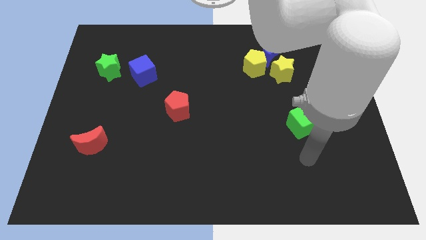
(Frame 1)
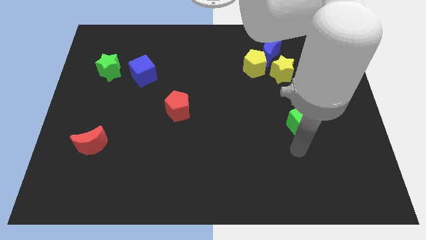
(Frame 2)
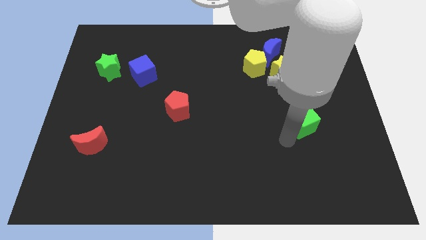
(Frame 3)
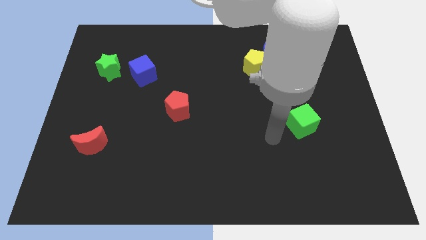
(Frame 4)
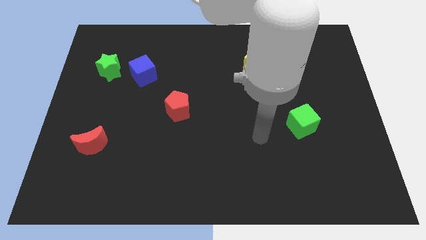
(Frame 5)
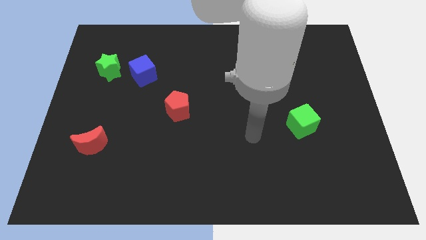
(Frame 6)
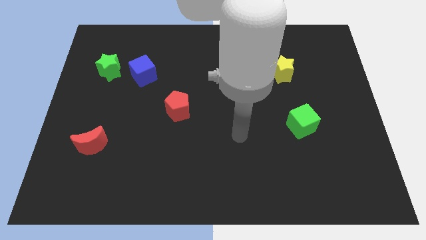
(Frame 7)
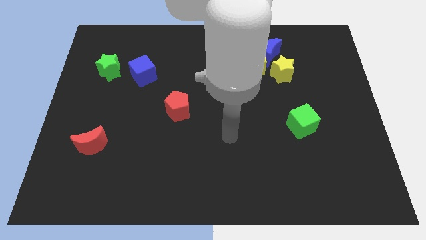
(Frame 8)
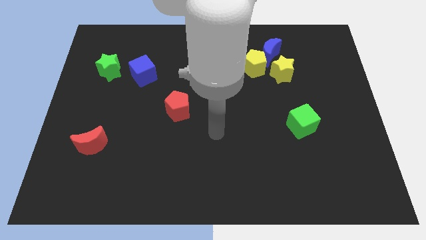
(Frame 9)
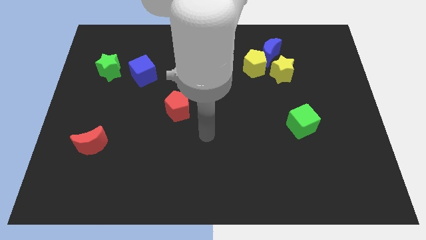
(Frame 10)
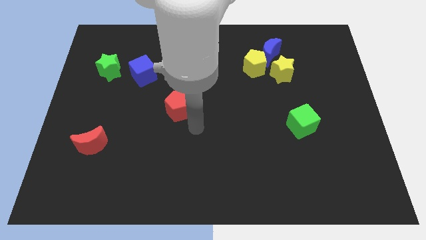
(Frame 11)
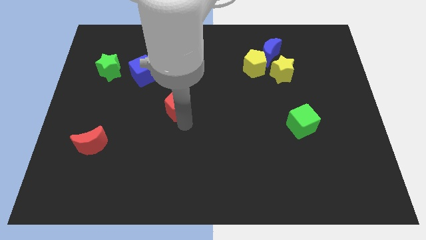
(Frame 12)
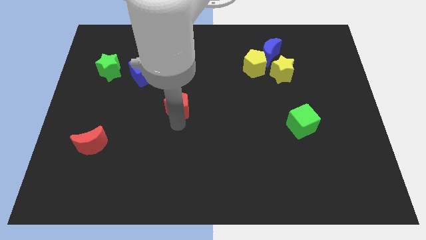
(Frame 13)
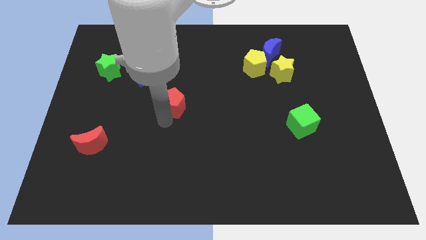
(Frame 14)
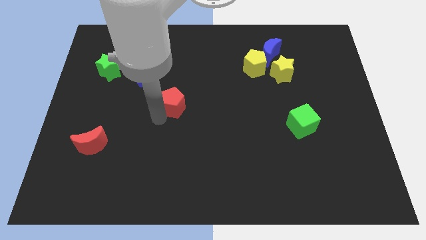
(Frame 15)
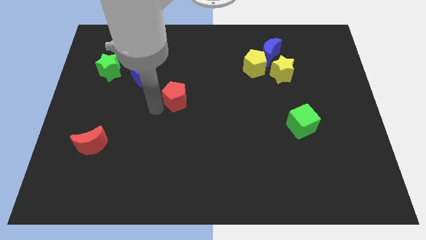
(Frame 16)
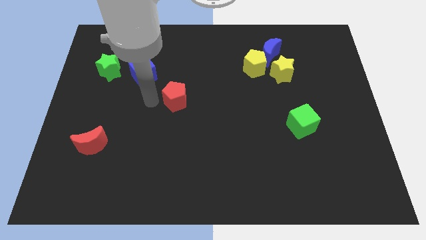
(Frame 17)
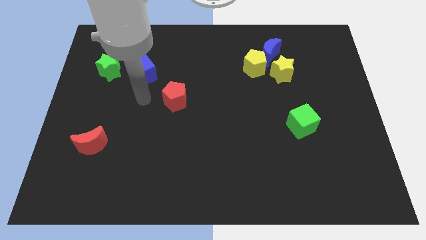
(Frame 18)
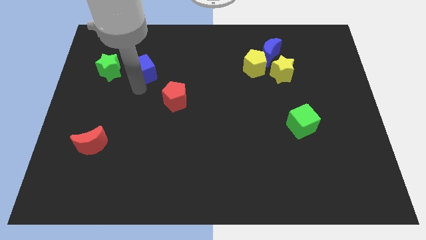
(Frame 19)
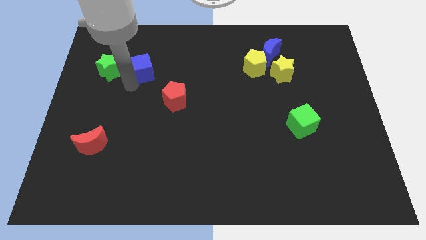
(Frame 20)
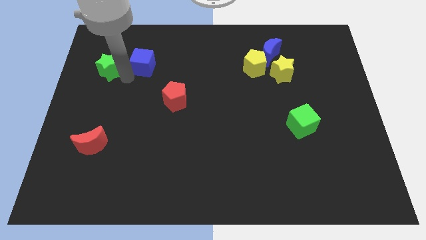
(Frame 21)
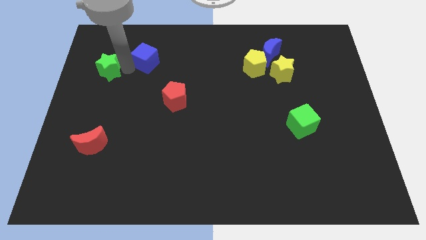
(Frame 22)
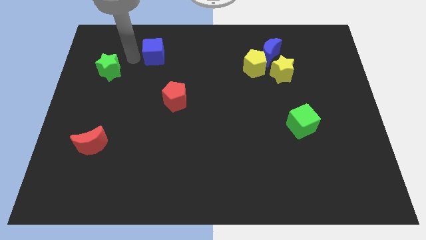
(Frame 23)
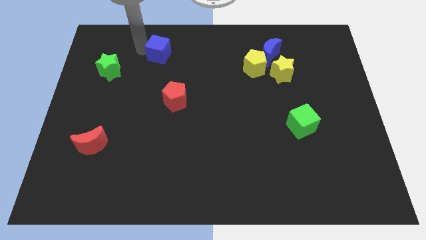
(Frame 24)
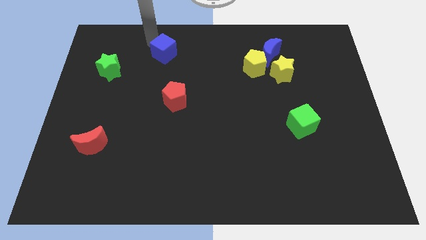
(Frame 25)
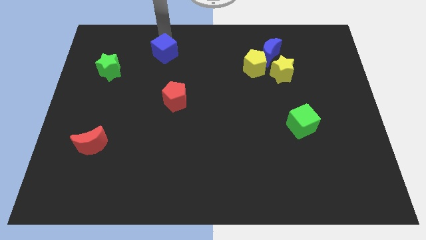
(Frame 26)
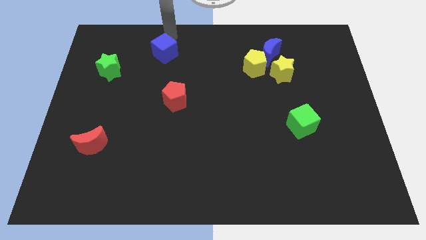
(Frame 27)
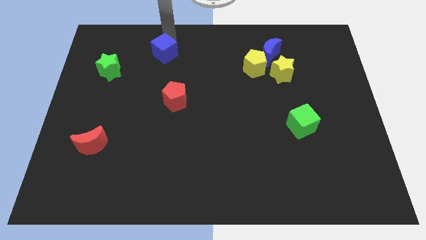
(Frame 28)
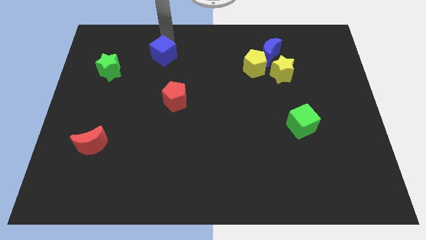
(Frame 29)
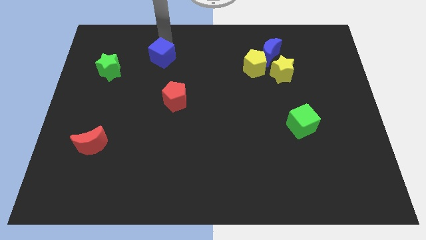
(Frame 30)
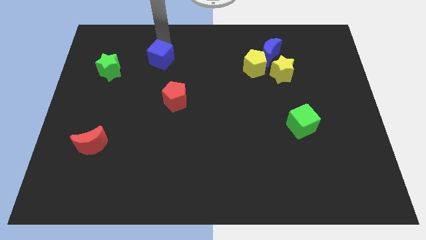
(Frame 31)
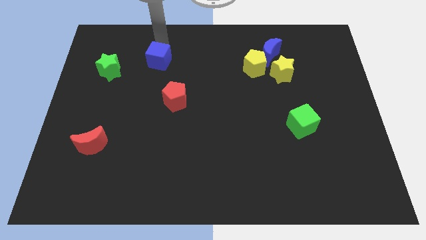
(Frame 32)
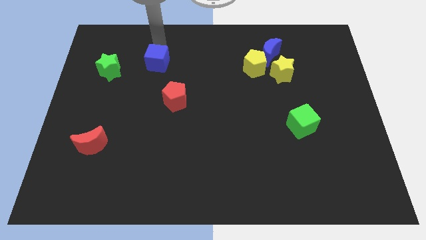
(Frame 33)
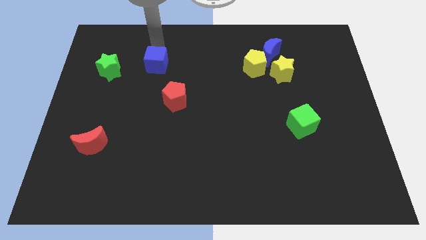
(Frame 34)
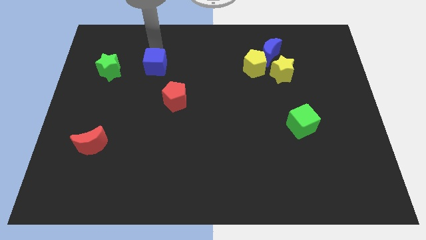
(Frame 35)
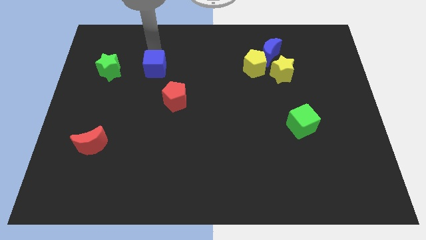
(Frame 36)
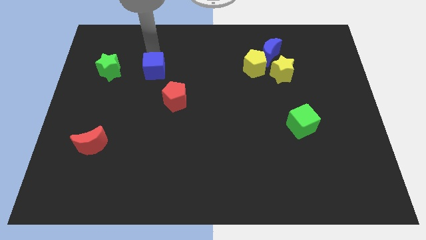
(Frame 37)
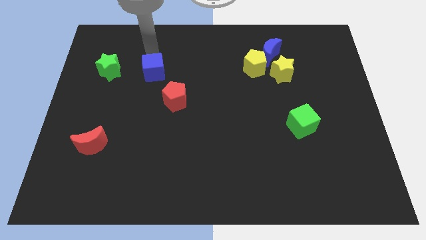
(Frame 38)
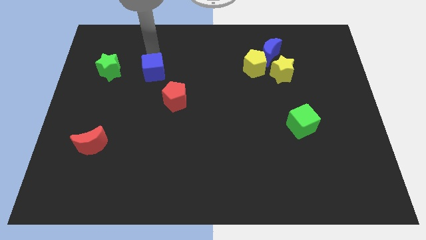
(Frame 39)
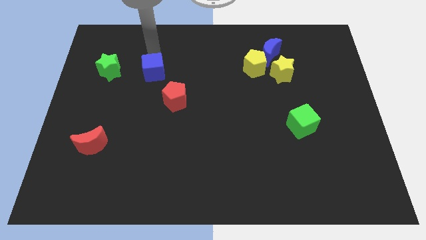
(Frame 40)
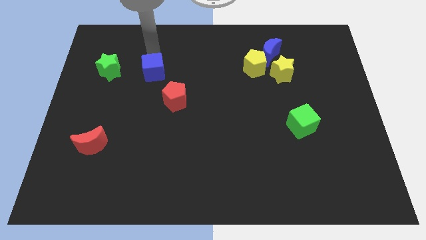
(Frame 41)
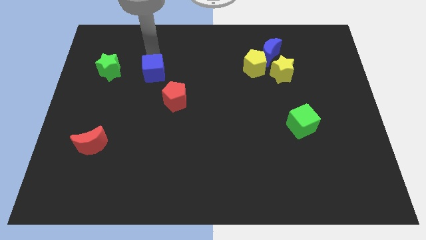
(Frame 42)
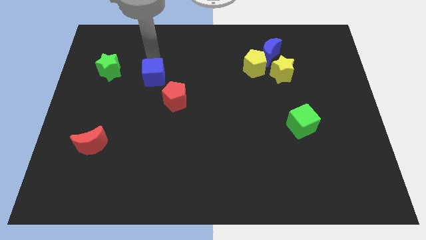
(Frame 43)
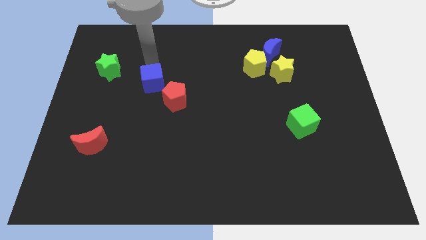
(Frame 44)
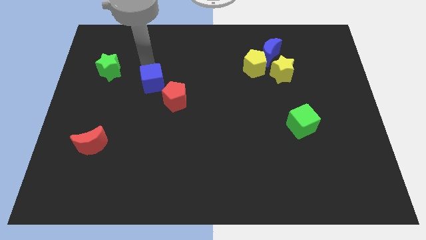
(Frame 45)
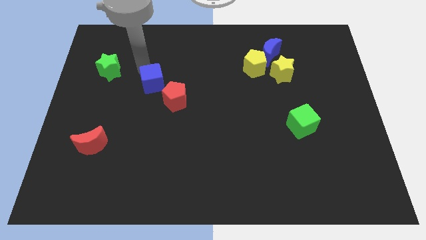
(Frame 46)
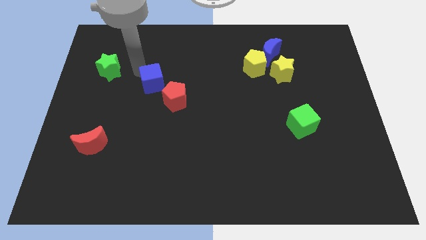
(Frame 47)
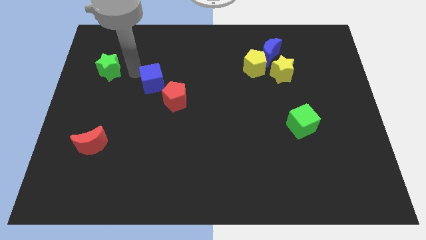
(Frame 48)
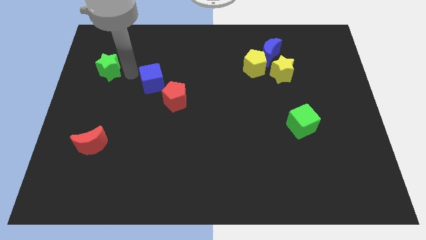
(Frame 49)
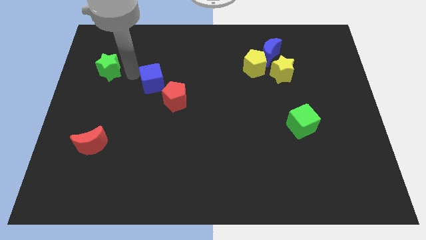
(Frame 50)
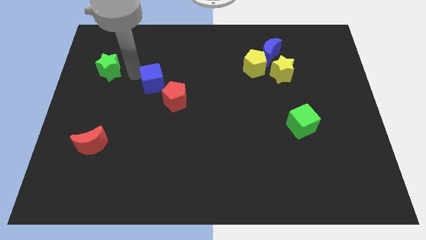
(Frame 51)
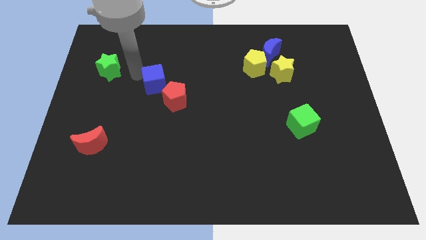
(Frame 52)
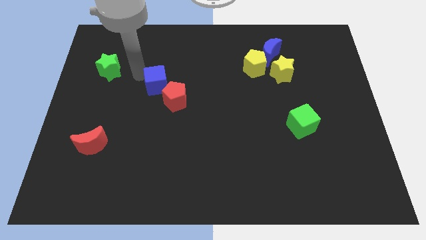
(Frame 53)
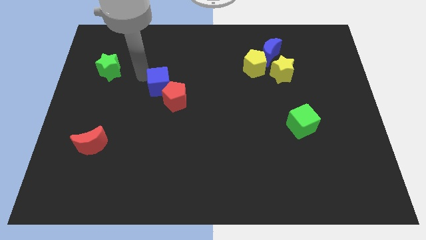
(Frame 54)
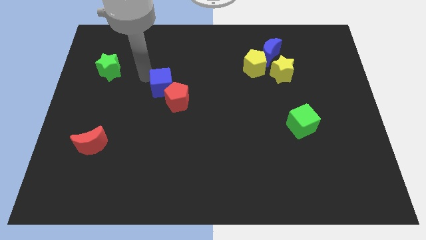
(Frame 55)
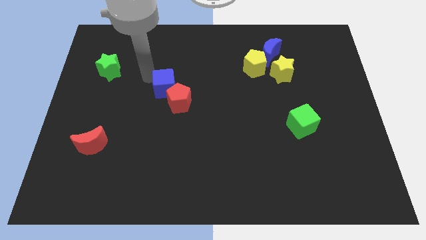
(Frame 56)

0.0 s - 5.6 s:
move the blue cube down and right a little bit

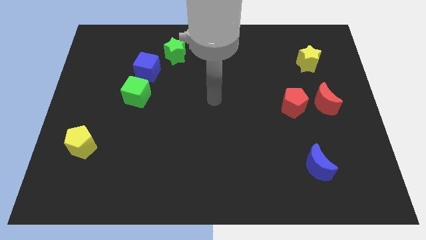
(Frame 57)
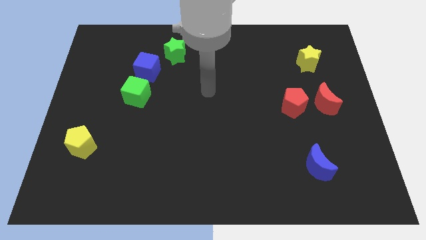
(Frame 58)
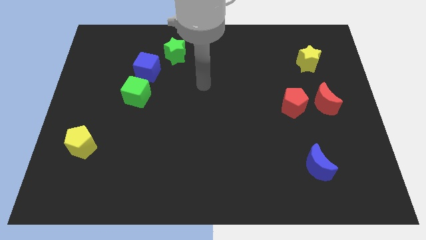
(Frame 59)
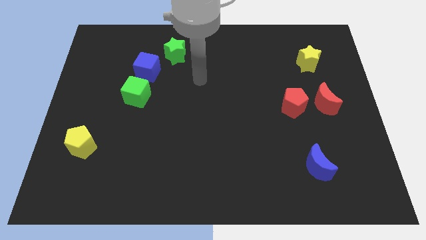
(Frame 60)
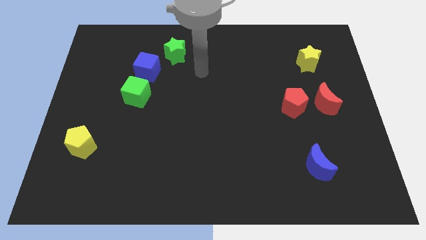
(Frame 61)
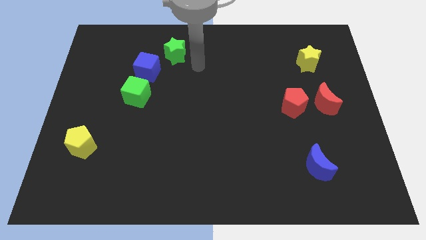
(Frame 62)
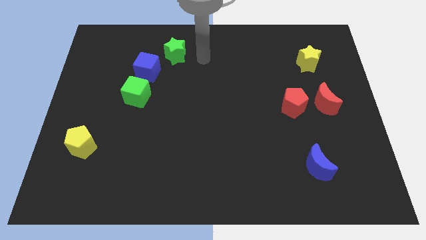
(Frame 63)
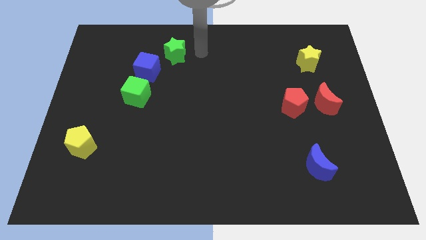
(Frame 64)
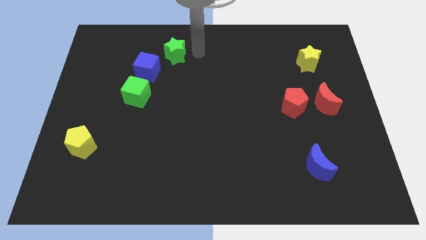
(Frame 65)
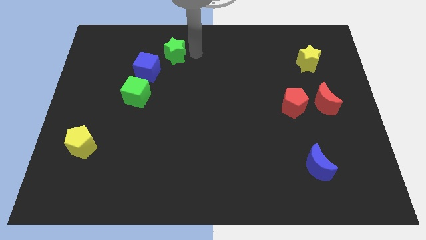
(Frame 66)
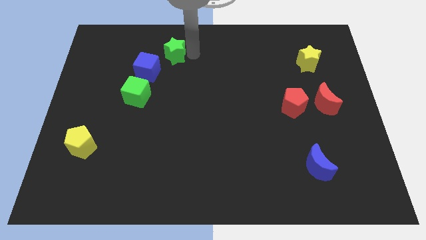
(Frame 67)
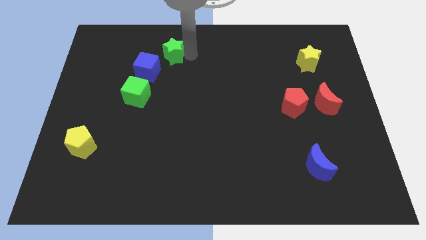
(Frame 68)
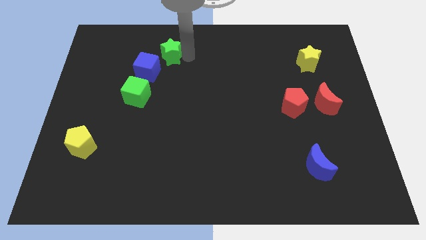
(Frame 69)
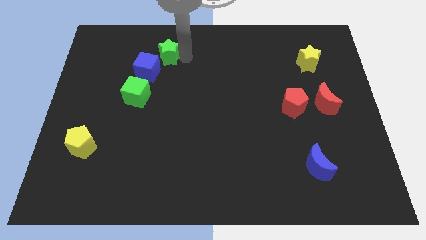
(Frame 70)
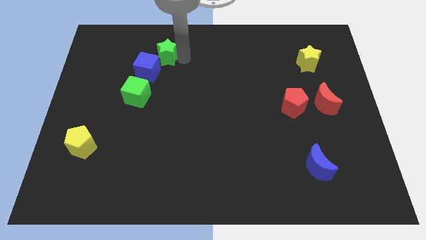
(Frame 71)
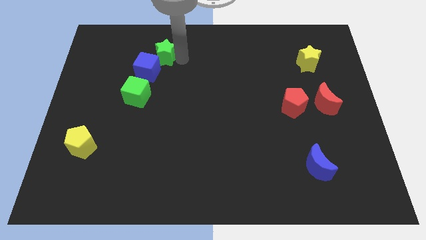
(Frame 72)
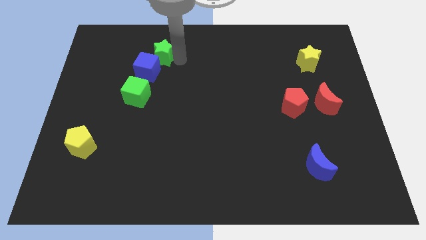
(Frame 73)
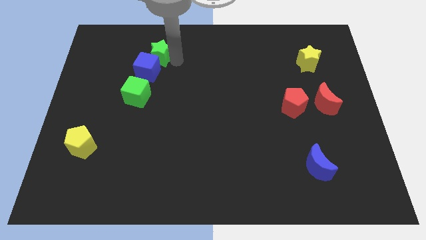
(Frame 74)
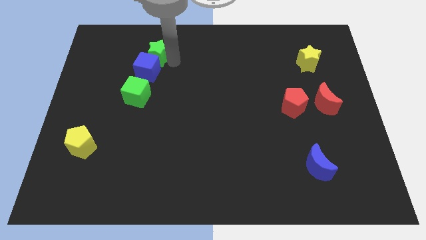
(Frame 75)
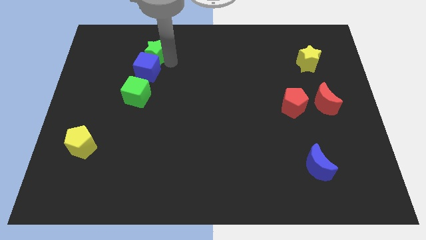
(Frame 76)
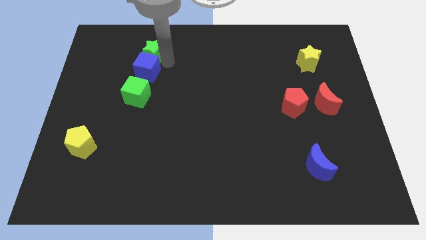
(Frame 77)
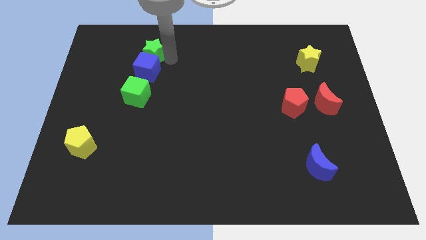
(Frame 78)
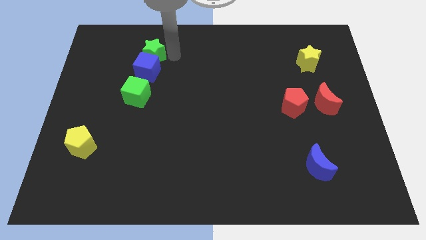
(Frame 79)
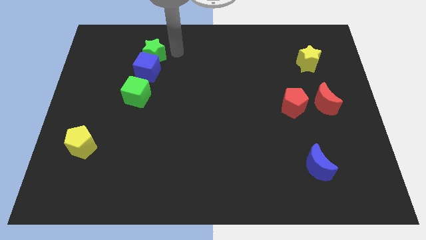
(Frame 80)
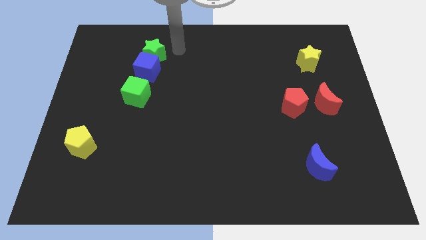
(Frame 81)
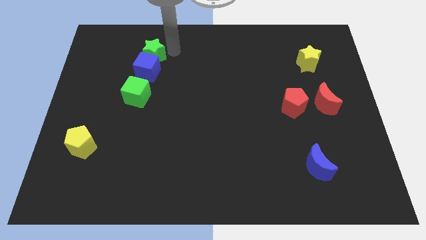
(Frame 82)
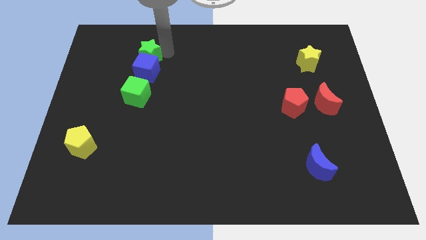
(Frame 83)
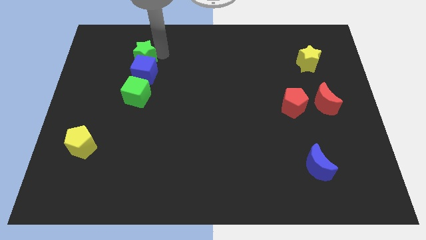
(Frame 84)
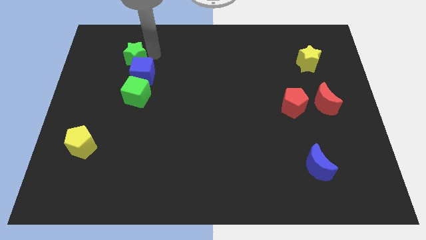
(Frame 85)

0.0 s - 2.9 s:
slide the green star somewhat down and left
